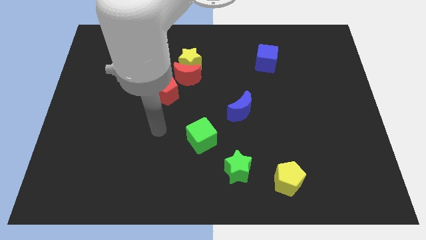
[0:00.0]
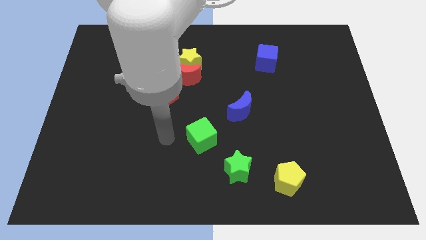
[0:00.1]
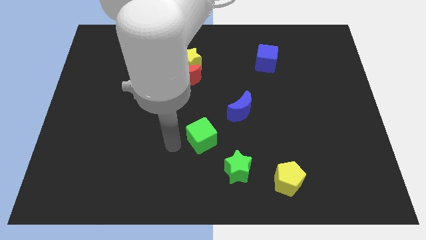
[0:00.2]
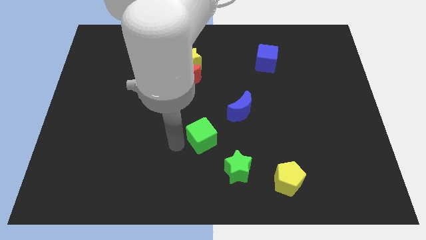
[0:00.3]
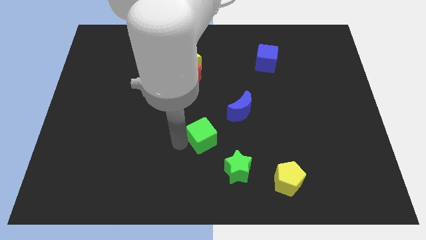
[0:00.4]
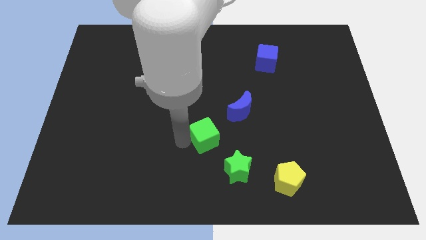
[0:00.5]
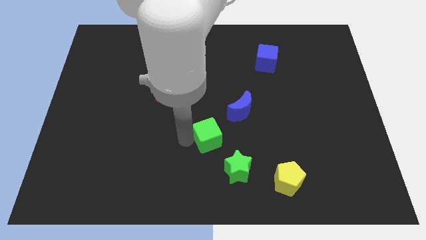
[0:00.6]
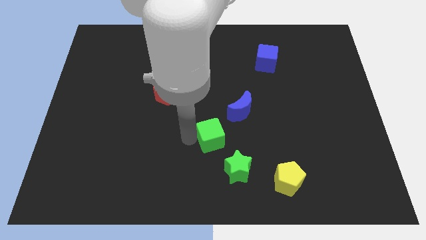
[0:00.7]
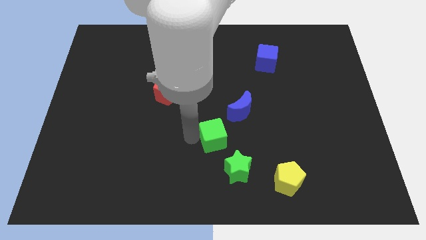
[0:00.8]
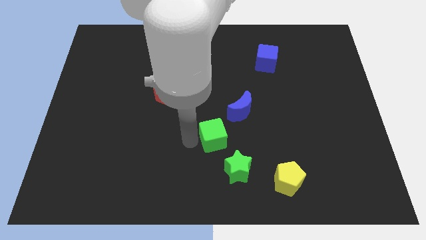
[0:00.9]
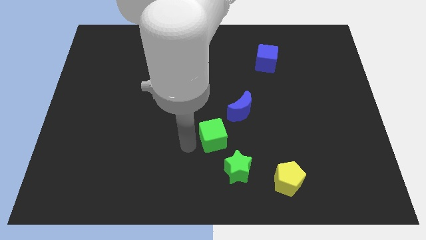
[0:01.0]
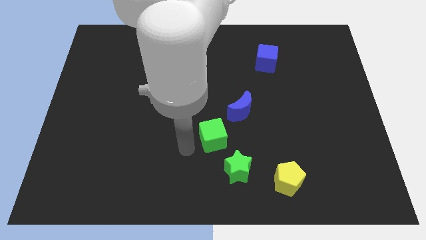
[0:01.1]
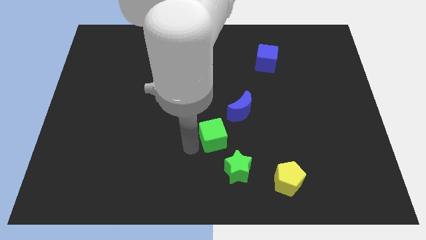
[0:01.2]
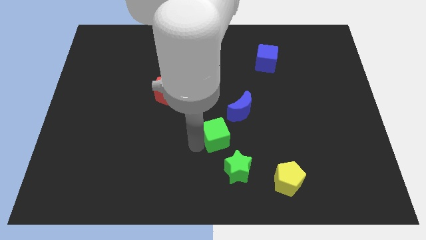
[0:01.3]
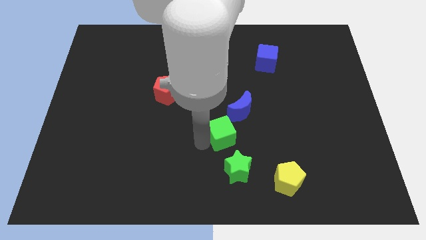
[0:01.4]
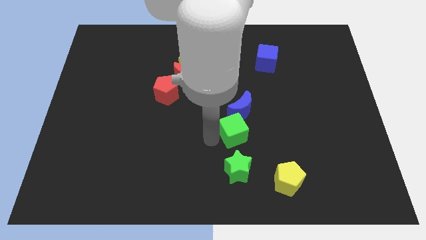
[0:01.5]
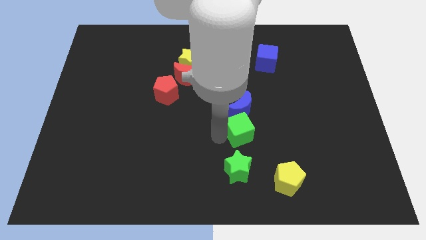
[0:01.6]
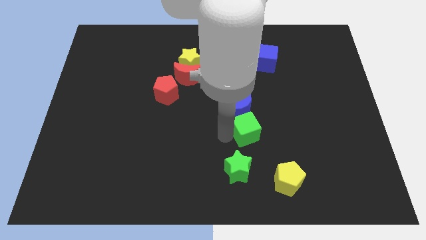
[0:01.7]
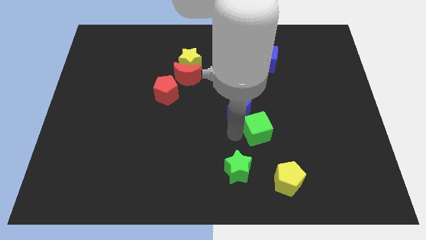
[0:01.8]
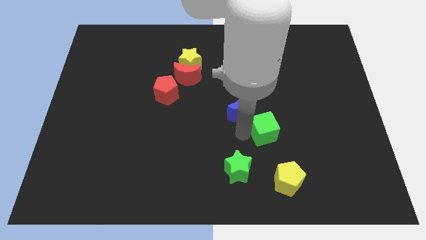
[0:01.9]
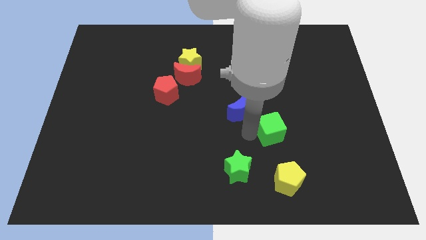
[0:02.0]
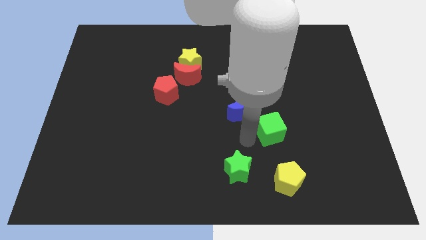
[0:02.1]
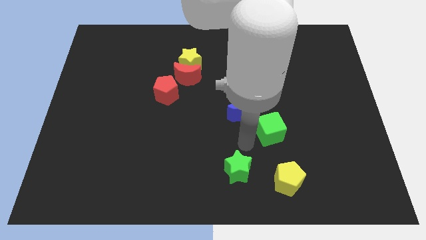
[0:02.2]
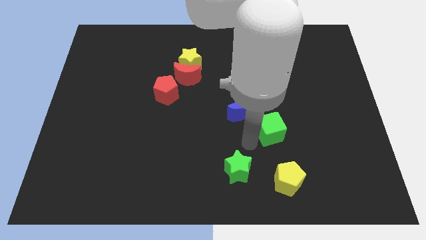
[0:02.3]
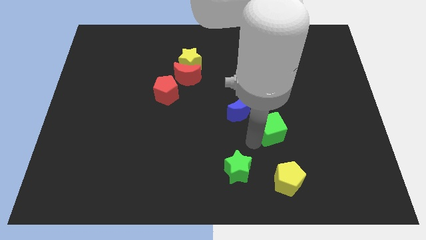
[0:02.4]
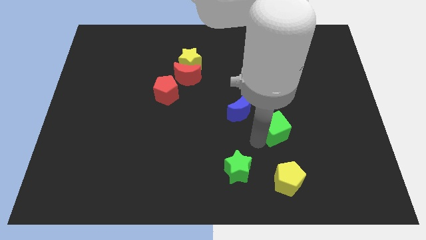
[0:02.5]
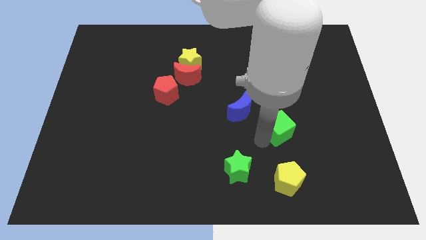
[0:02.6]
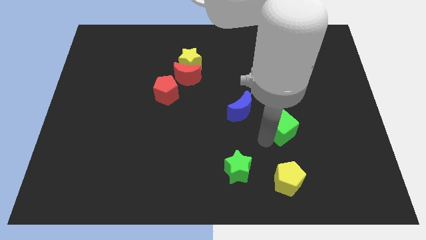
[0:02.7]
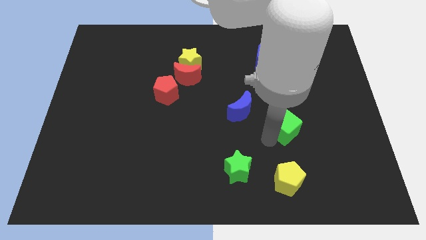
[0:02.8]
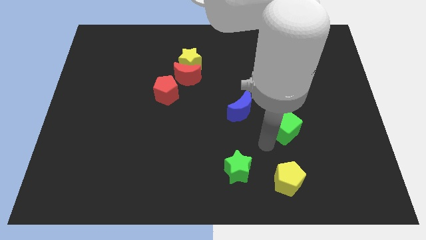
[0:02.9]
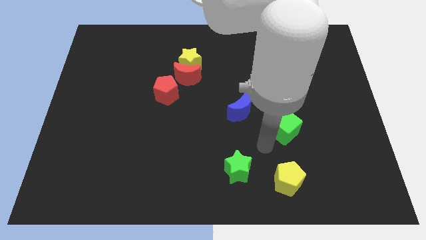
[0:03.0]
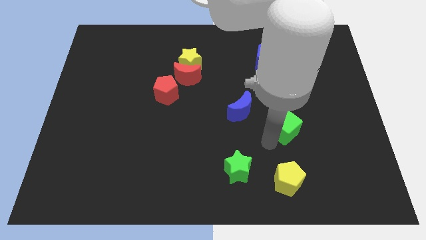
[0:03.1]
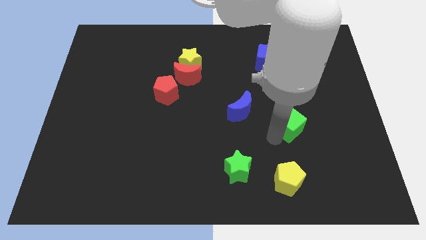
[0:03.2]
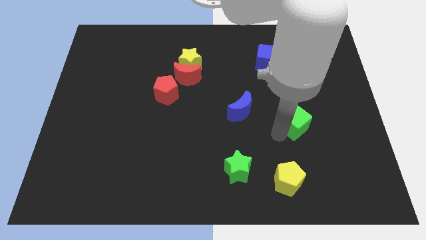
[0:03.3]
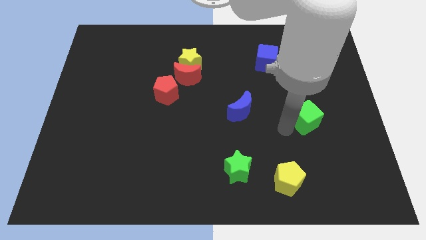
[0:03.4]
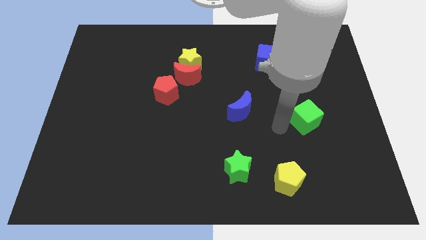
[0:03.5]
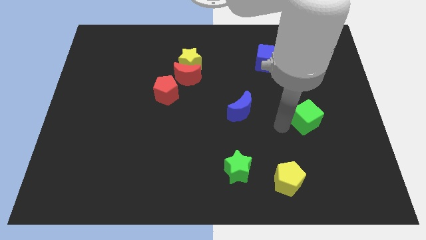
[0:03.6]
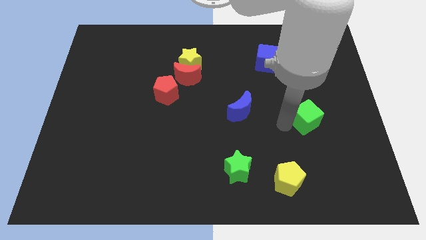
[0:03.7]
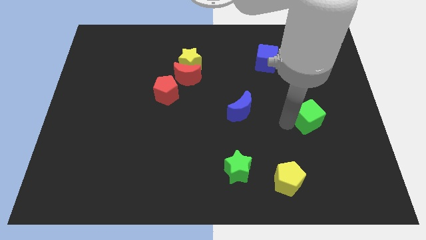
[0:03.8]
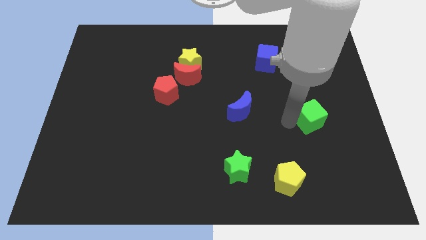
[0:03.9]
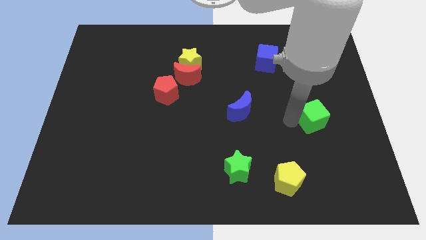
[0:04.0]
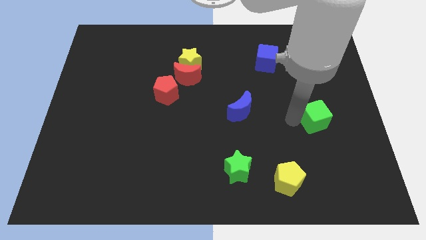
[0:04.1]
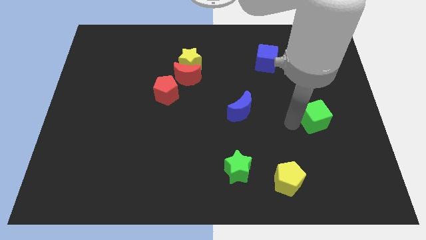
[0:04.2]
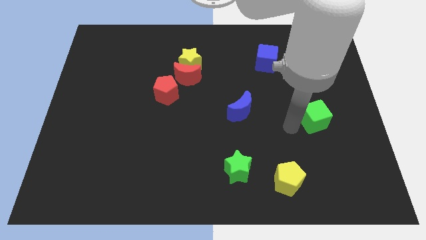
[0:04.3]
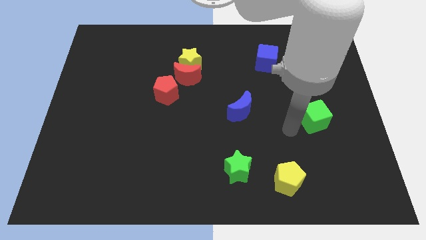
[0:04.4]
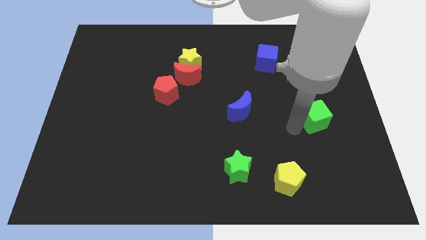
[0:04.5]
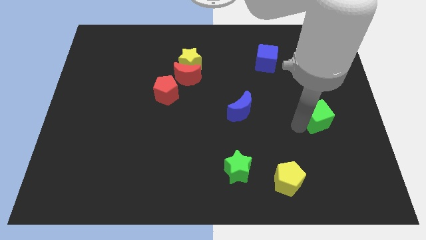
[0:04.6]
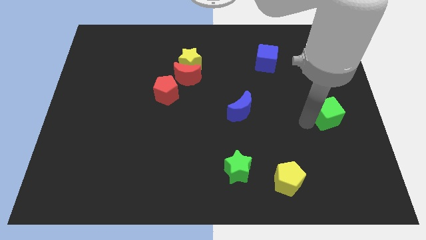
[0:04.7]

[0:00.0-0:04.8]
move the green cube to the right side

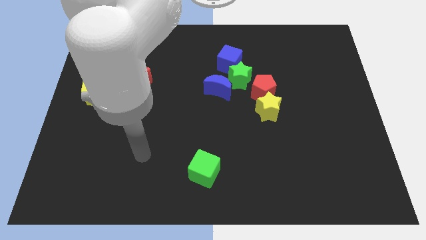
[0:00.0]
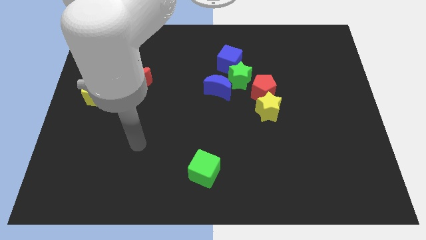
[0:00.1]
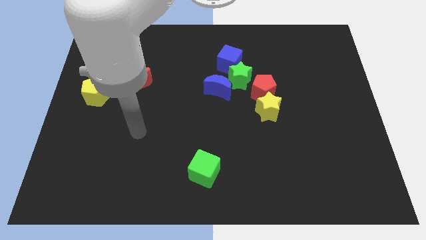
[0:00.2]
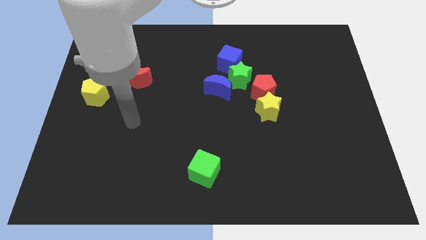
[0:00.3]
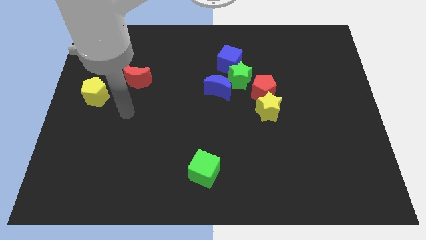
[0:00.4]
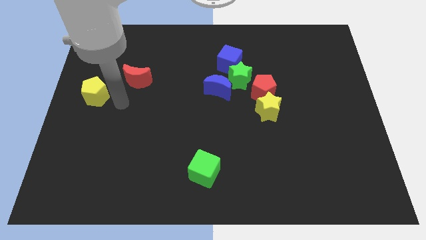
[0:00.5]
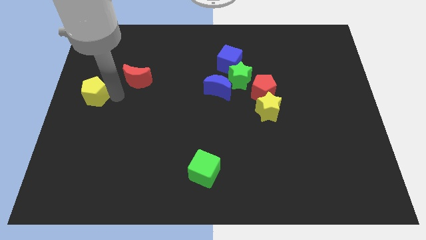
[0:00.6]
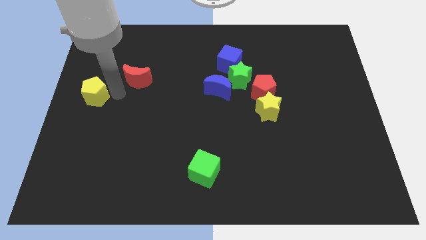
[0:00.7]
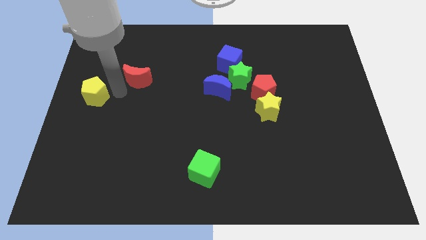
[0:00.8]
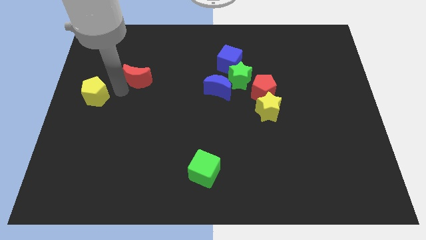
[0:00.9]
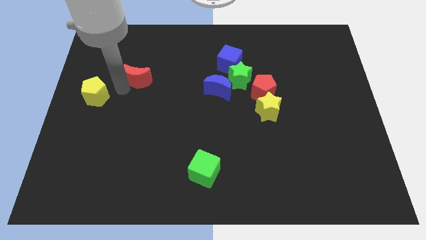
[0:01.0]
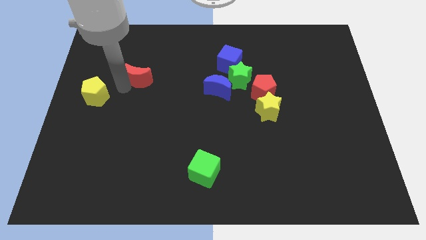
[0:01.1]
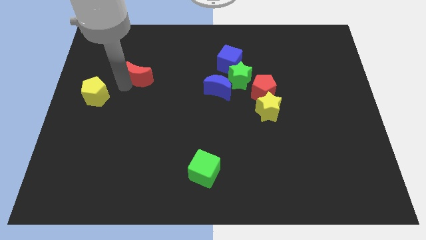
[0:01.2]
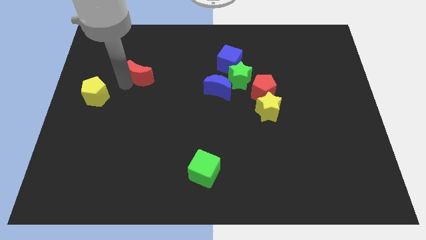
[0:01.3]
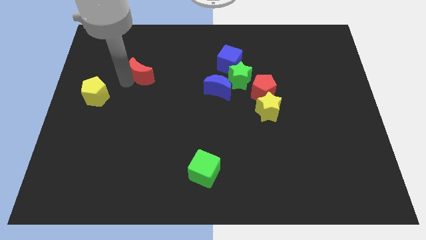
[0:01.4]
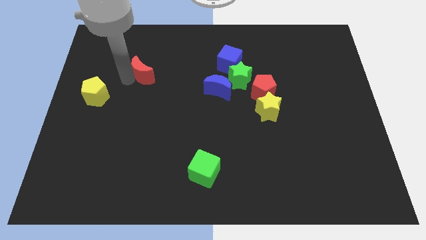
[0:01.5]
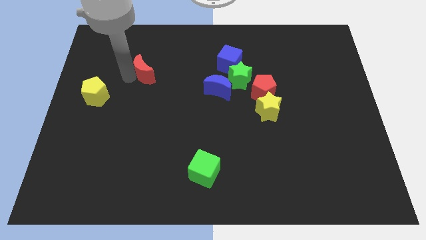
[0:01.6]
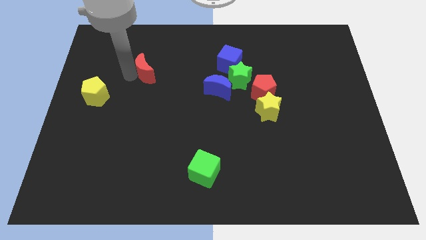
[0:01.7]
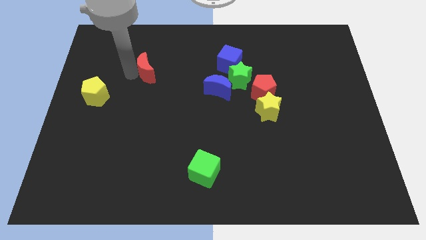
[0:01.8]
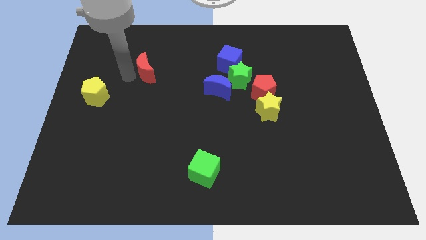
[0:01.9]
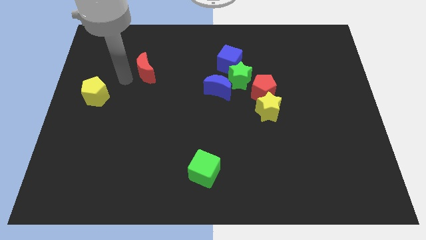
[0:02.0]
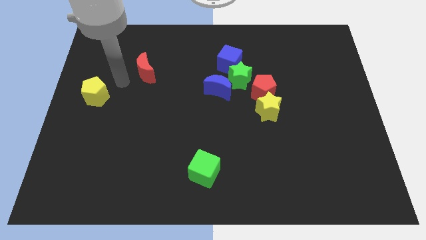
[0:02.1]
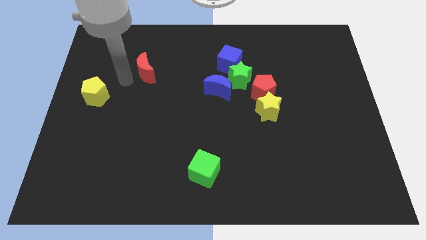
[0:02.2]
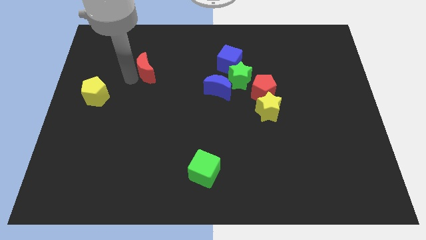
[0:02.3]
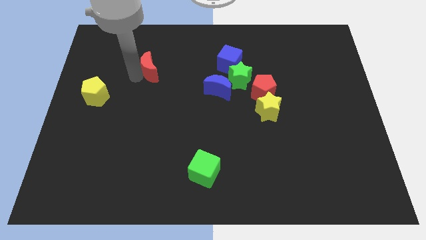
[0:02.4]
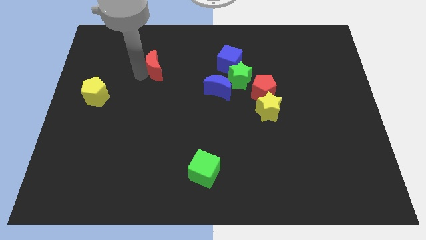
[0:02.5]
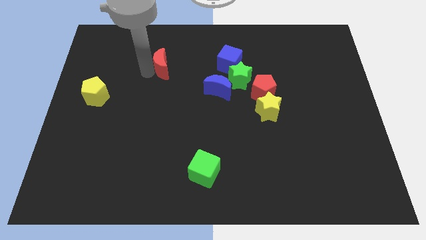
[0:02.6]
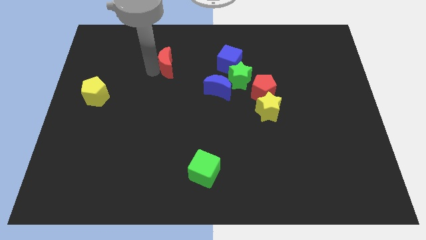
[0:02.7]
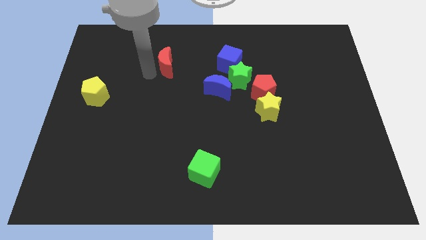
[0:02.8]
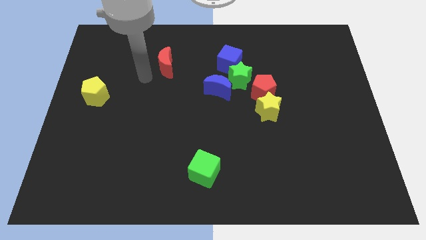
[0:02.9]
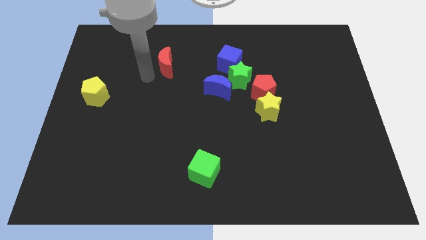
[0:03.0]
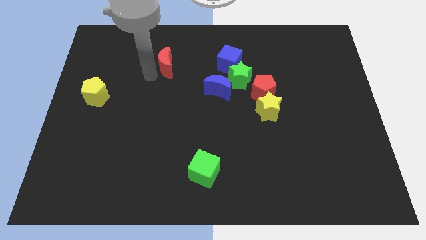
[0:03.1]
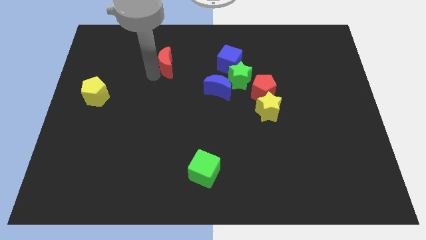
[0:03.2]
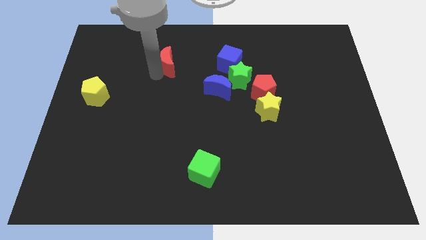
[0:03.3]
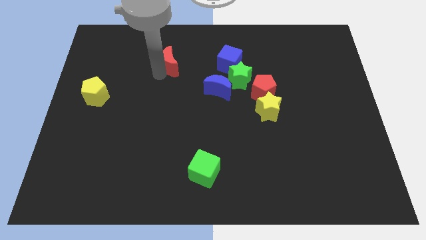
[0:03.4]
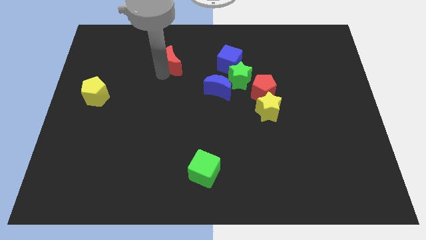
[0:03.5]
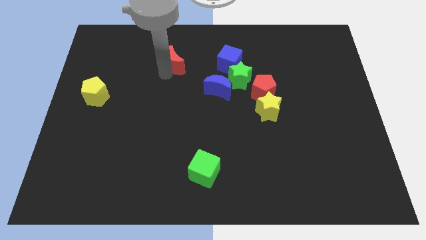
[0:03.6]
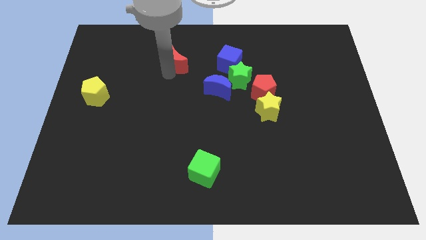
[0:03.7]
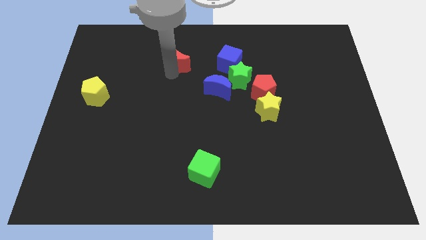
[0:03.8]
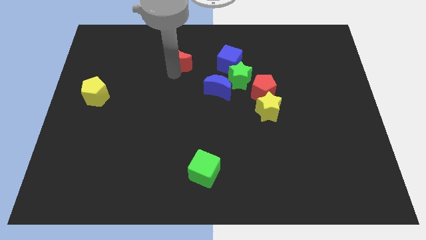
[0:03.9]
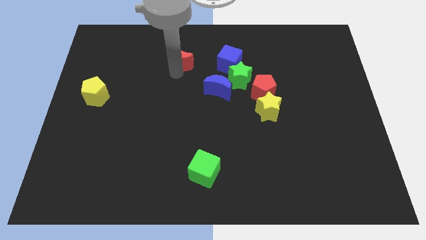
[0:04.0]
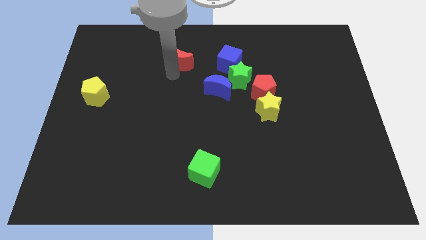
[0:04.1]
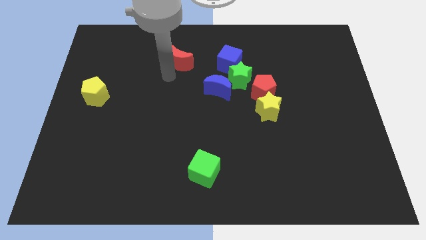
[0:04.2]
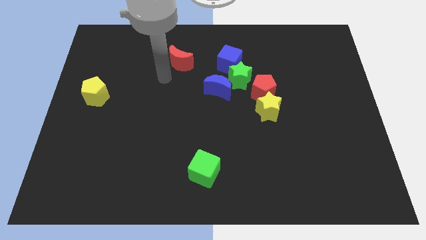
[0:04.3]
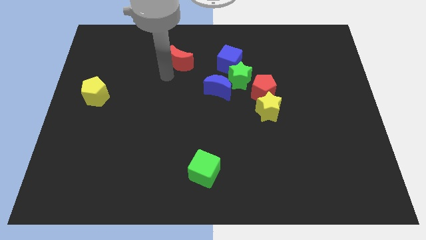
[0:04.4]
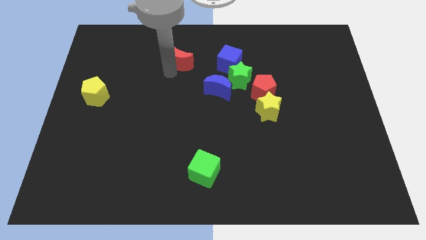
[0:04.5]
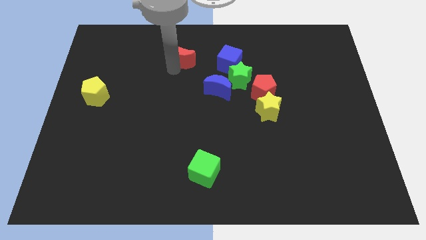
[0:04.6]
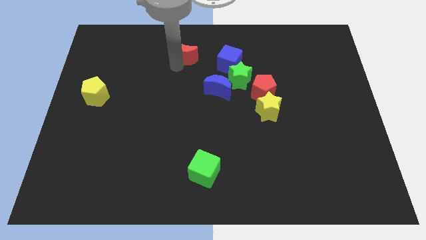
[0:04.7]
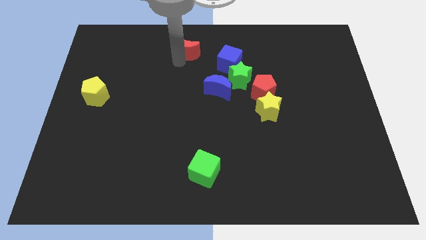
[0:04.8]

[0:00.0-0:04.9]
move the red moon to the top
